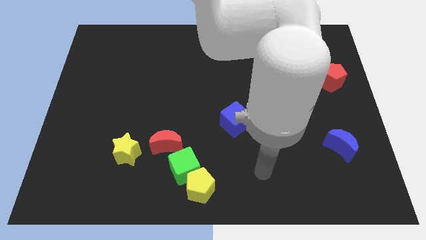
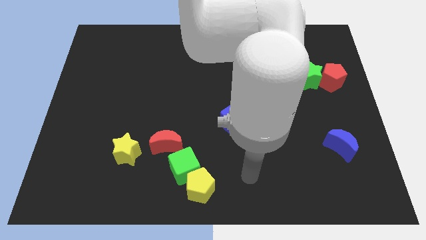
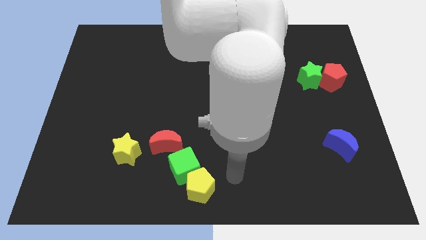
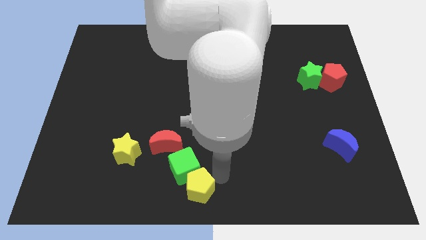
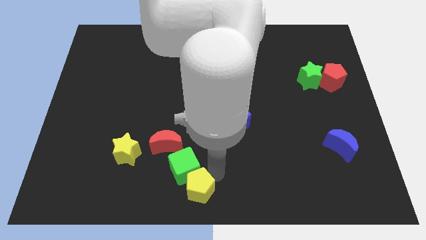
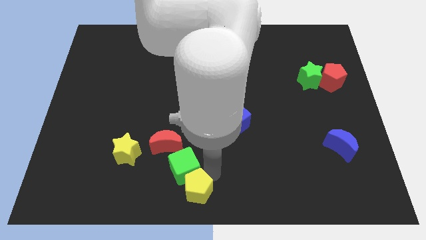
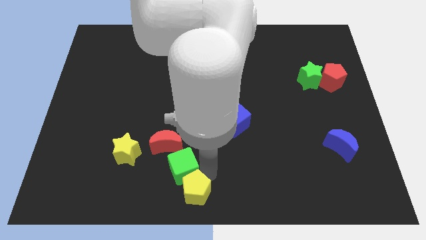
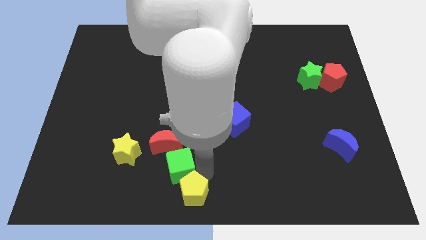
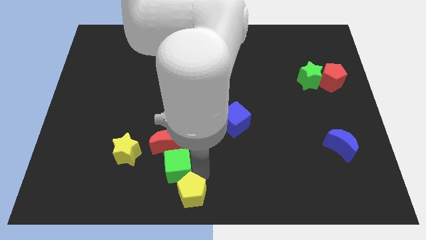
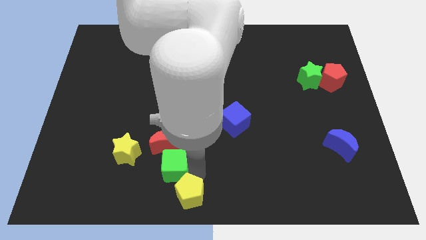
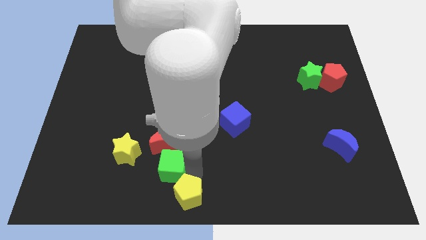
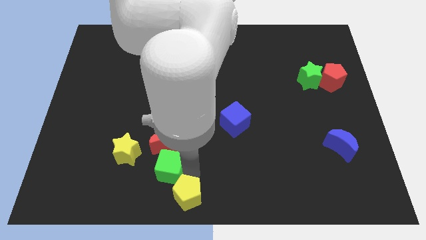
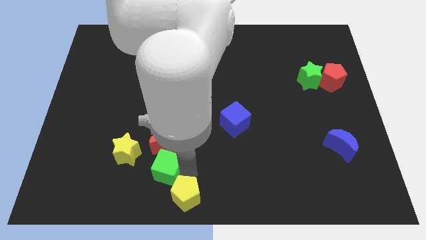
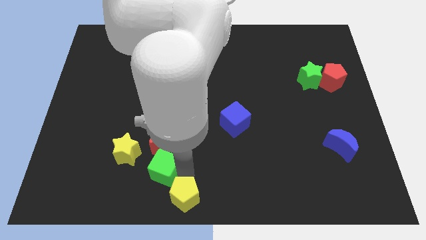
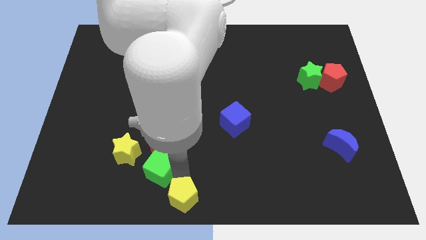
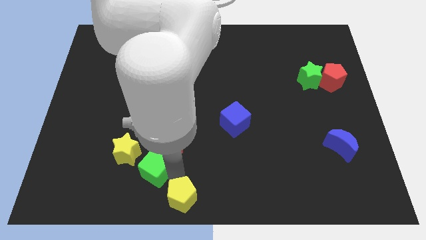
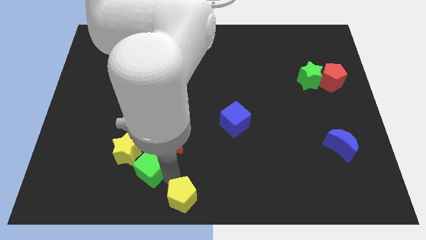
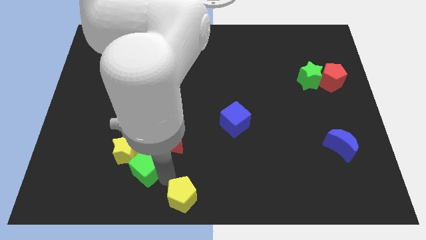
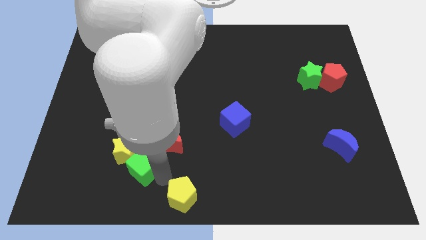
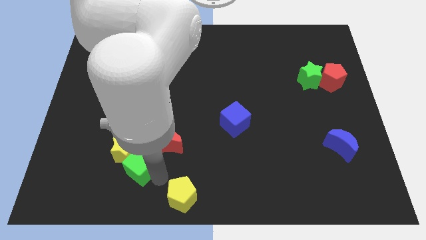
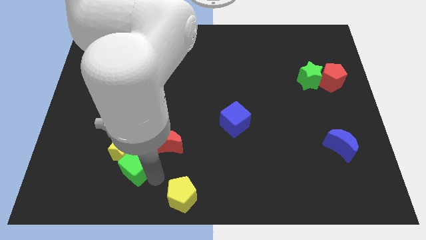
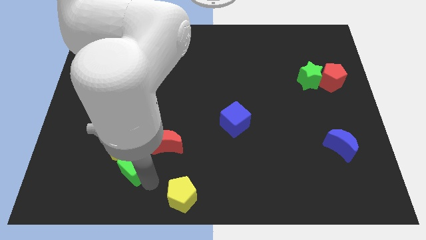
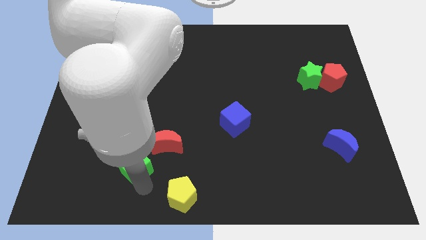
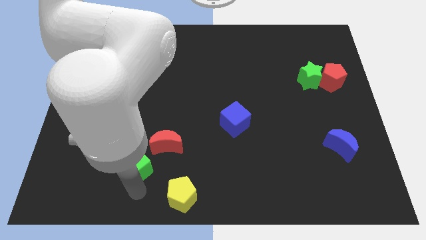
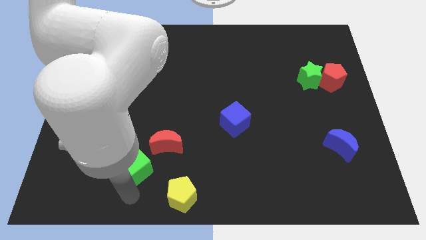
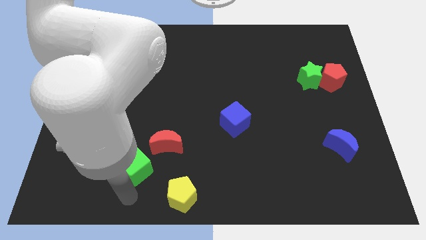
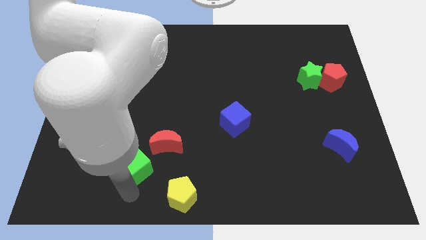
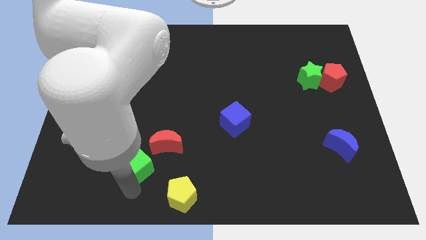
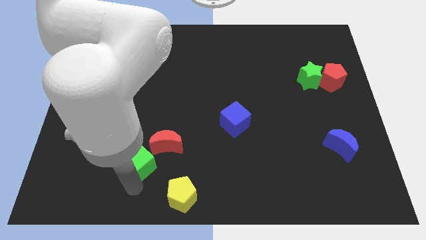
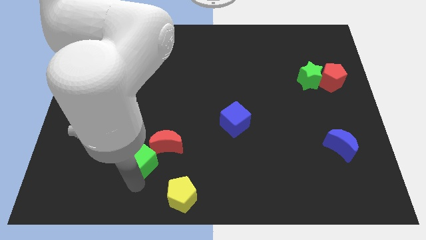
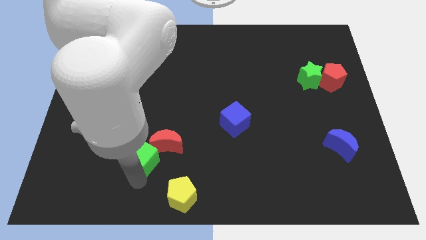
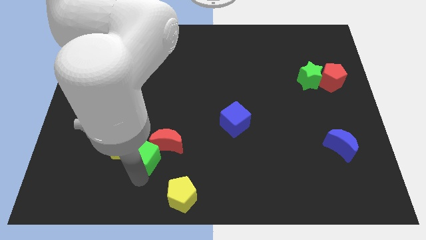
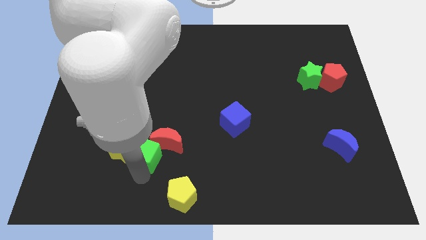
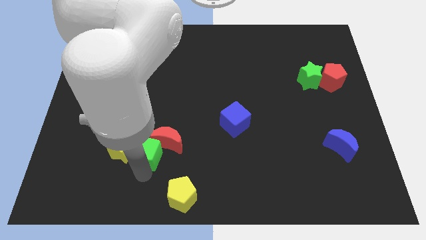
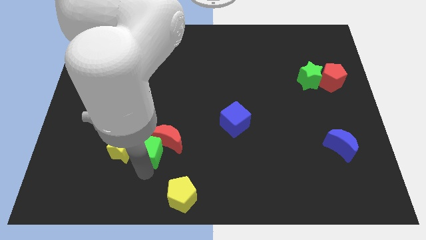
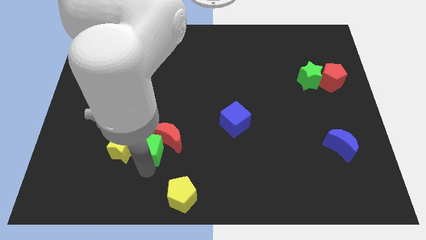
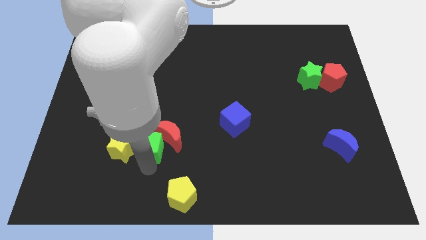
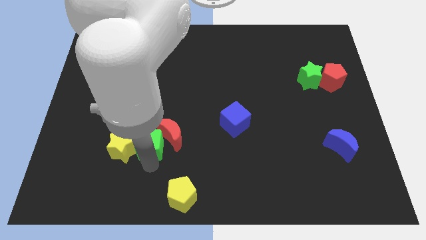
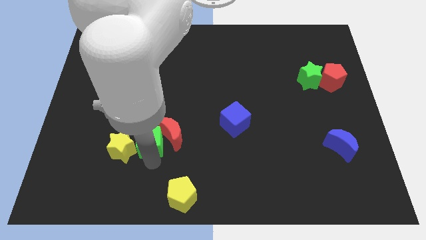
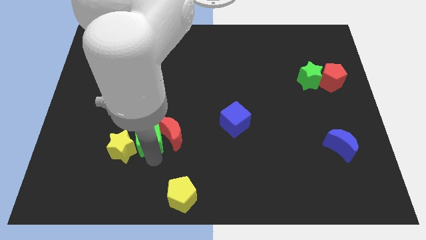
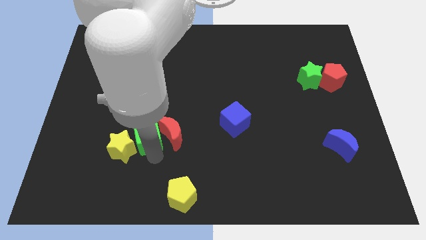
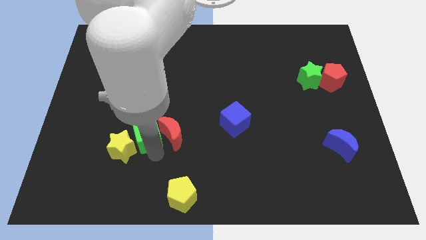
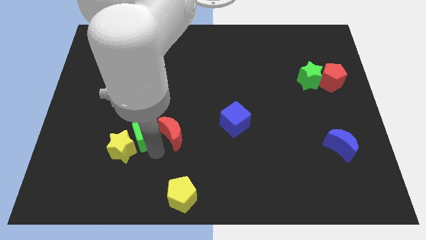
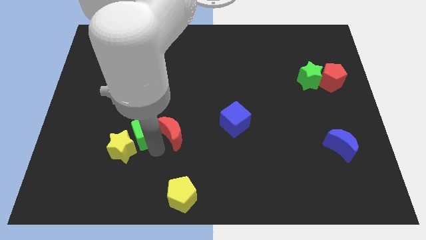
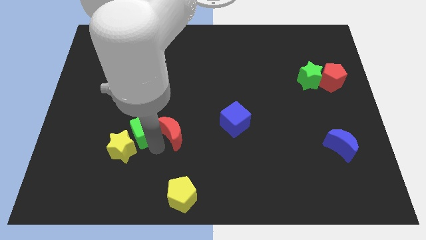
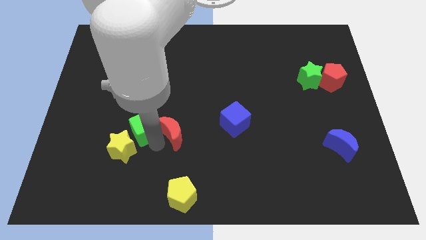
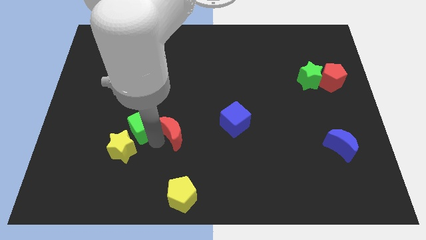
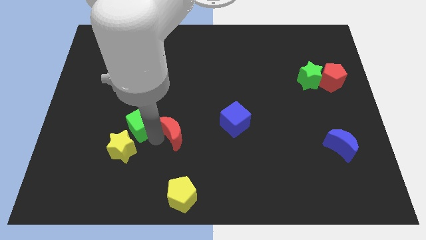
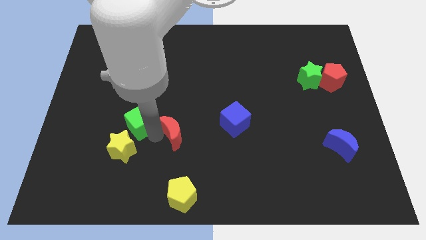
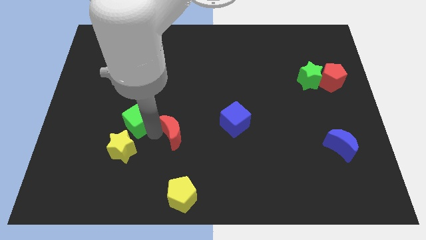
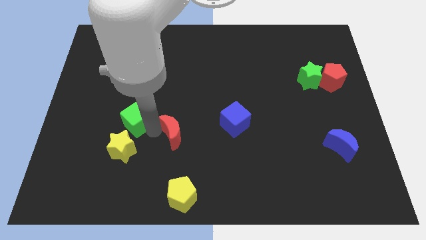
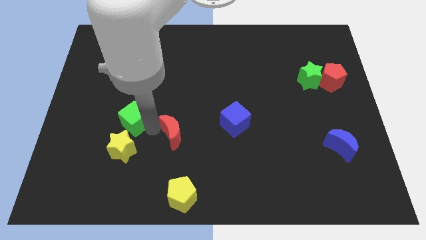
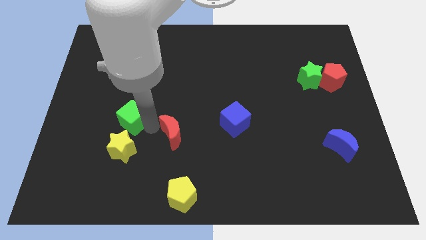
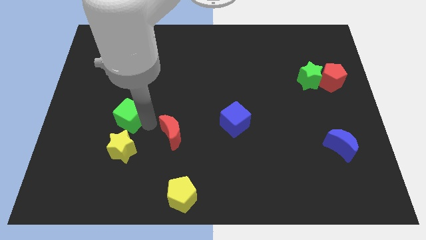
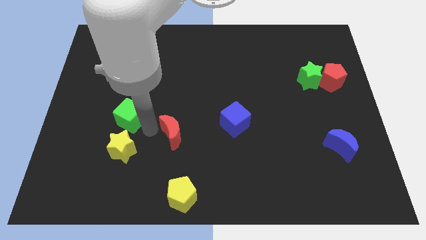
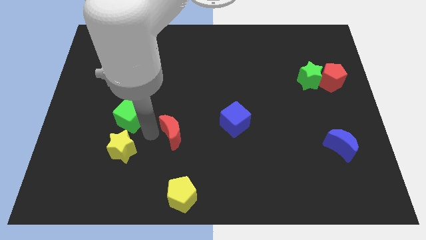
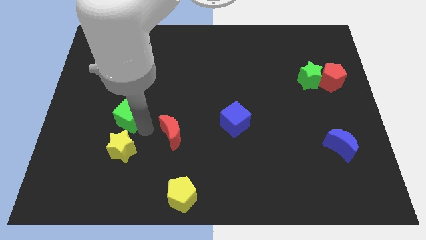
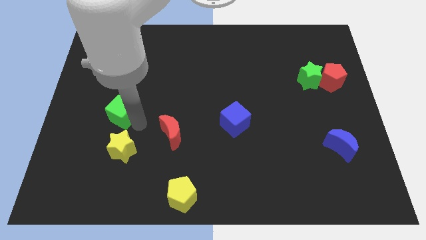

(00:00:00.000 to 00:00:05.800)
slide the green cube up and left

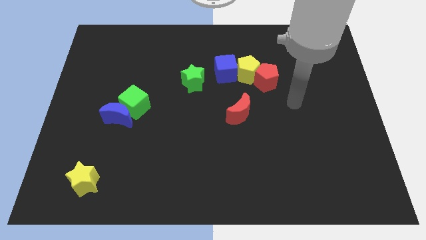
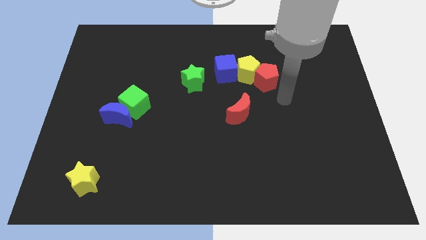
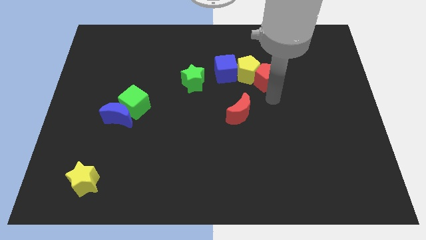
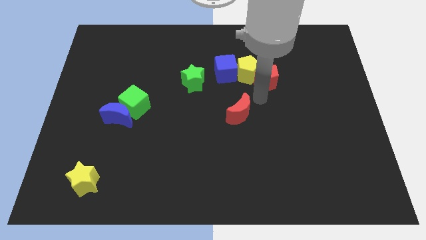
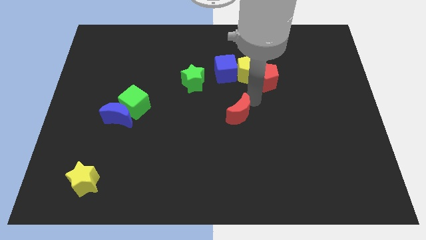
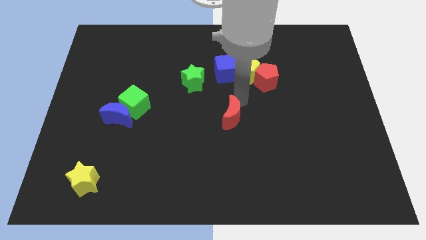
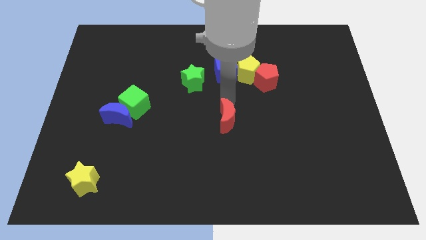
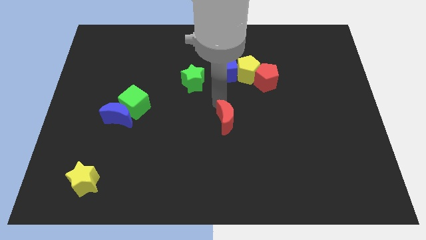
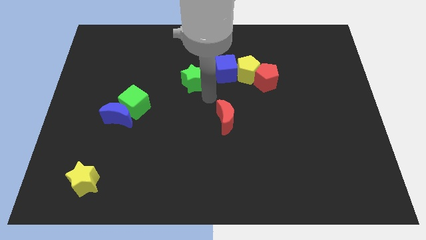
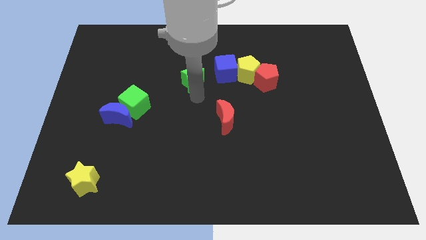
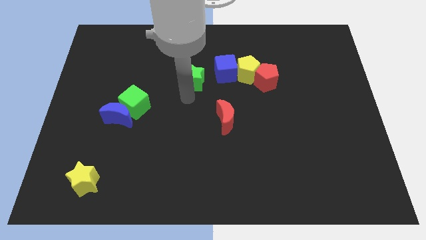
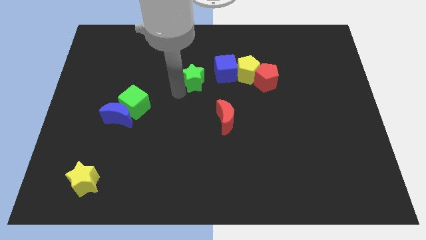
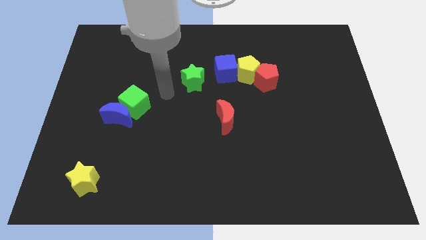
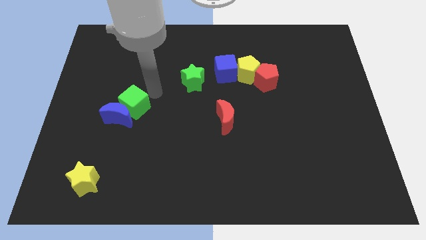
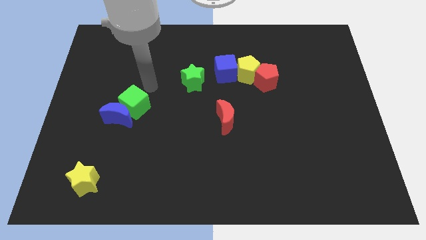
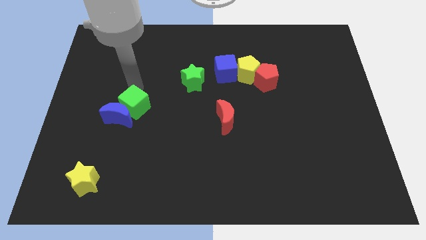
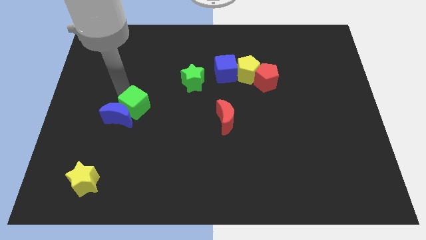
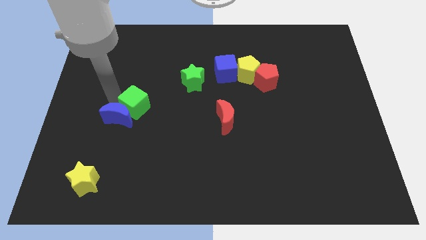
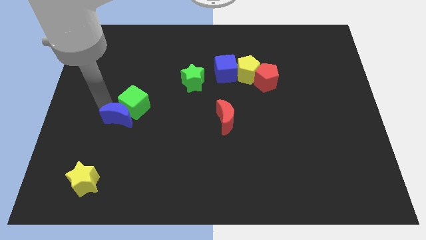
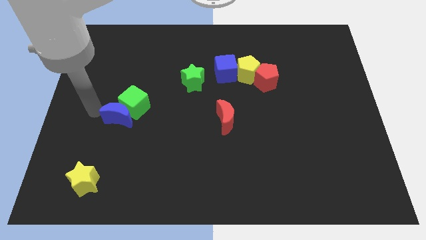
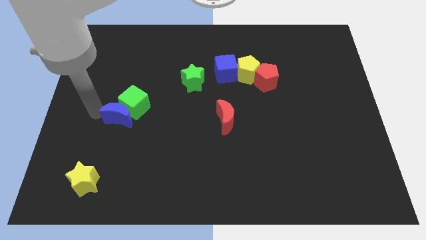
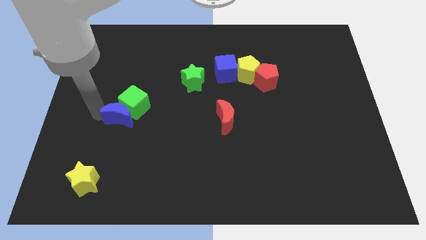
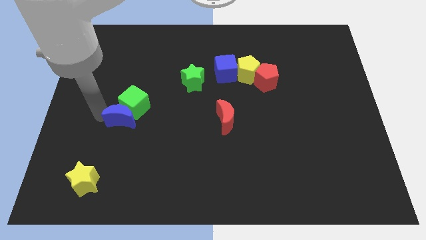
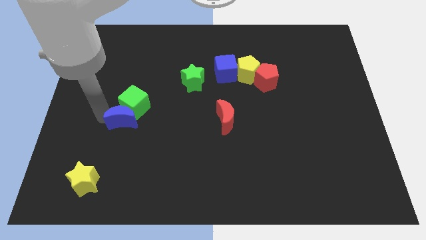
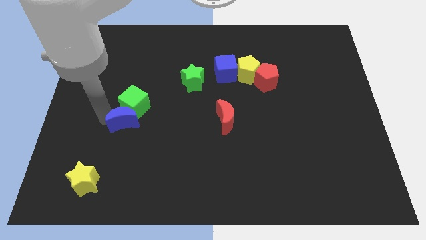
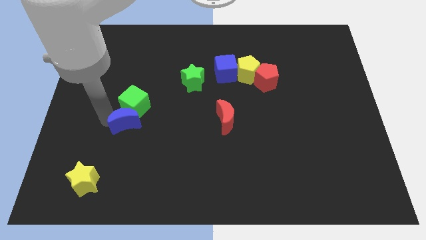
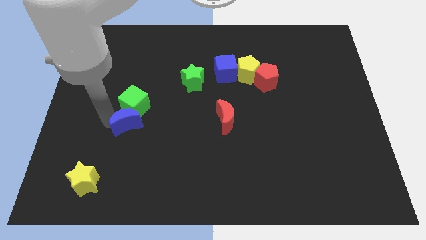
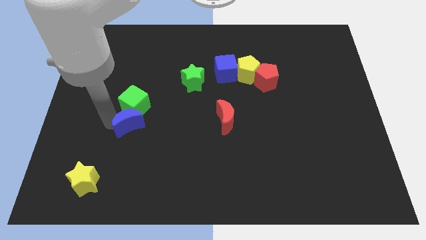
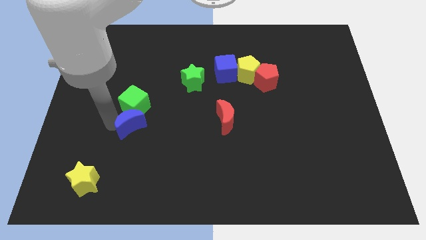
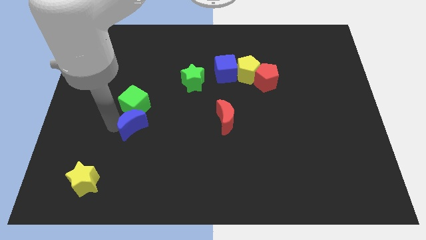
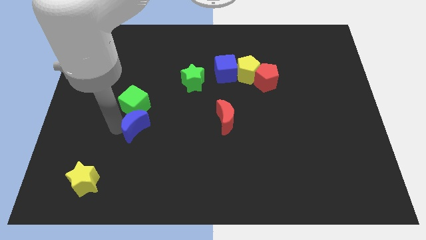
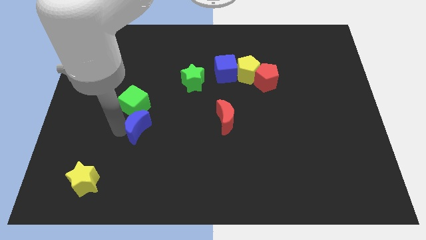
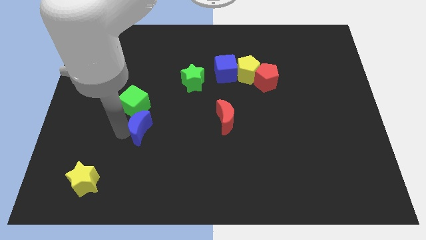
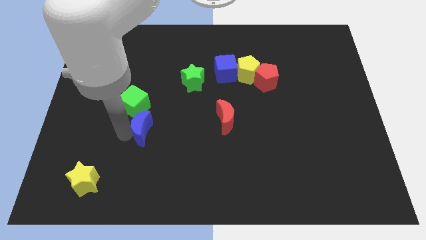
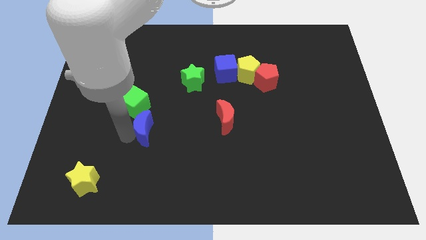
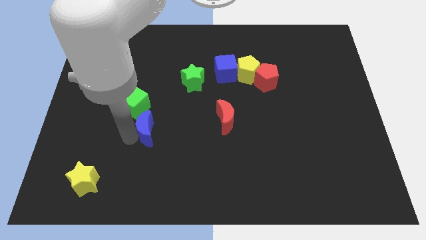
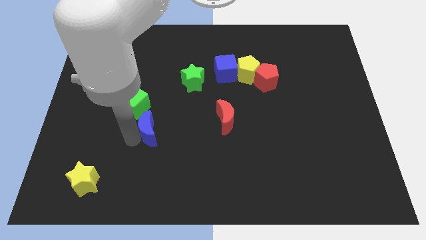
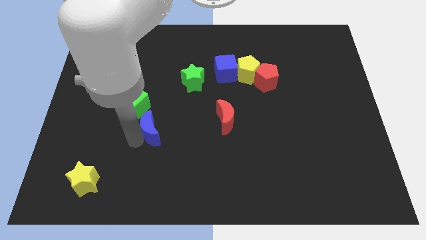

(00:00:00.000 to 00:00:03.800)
slide the blue moon to the right a little
